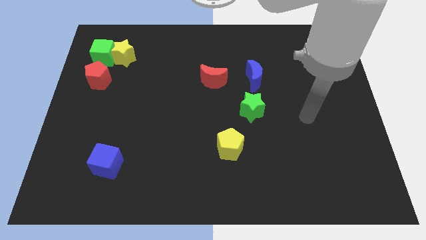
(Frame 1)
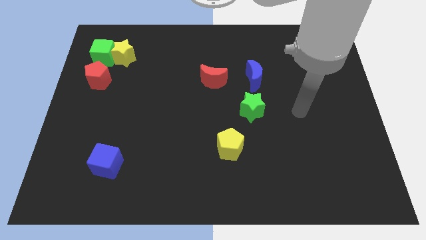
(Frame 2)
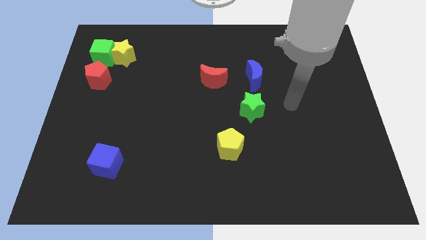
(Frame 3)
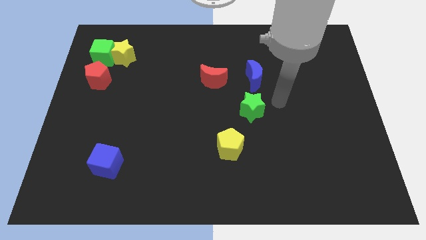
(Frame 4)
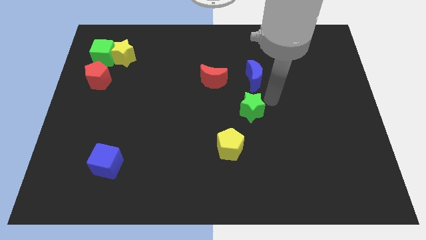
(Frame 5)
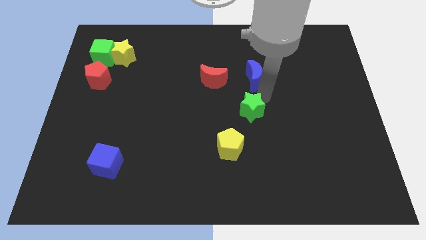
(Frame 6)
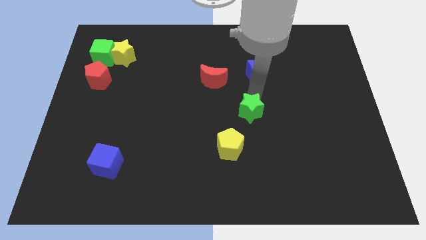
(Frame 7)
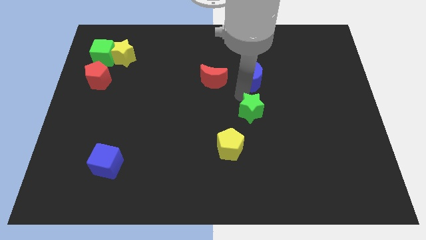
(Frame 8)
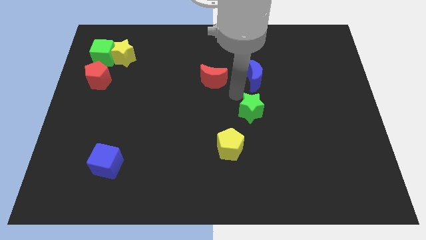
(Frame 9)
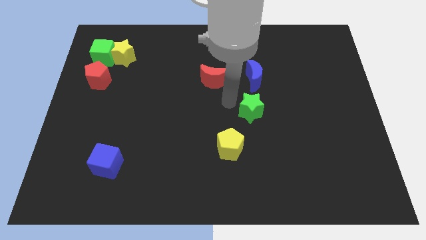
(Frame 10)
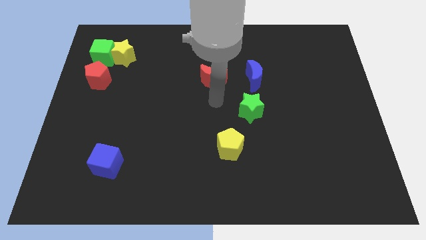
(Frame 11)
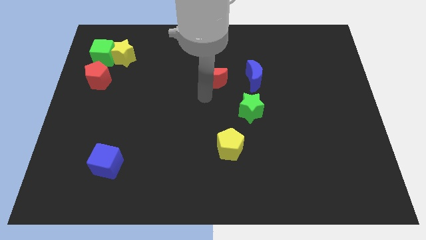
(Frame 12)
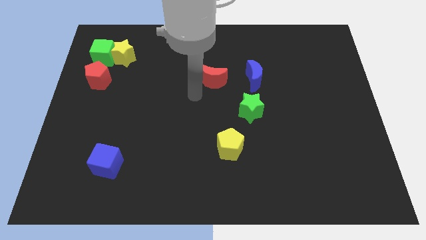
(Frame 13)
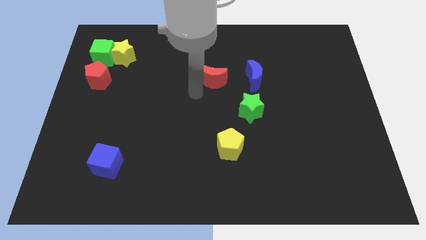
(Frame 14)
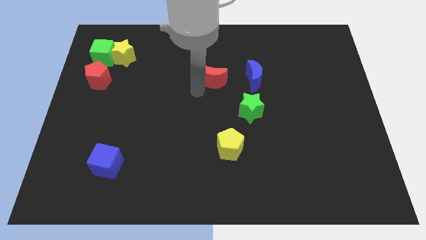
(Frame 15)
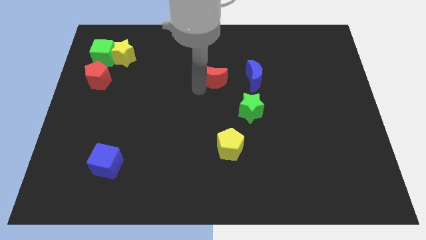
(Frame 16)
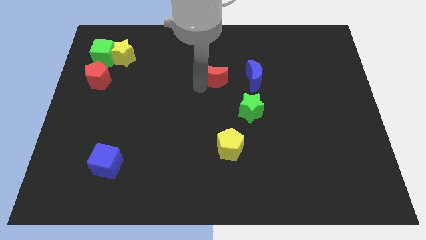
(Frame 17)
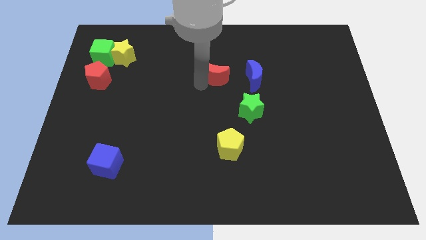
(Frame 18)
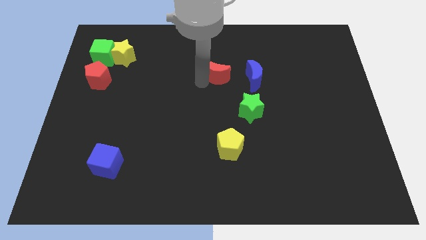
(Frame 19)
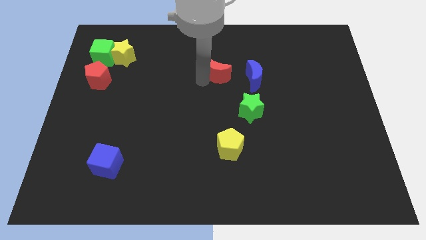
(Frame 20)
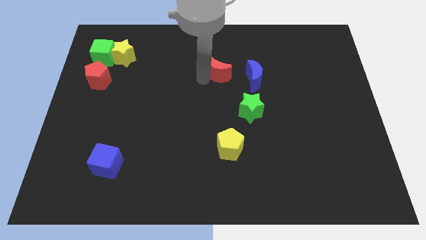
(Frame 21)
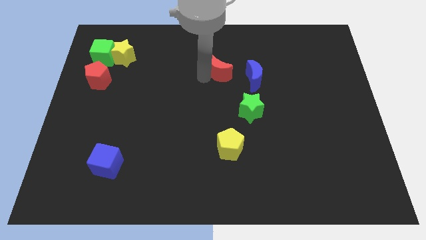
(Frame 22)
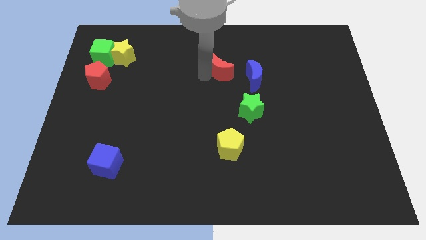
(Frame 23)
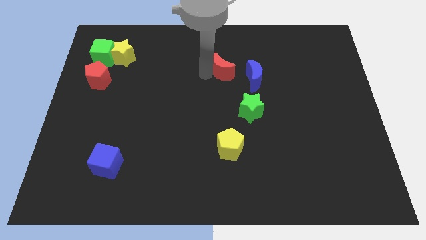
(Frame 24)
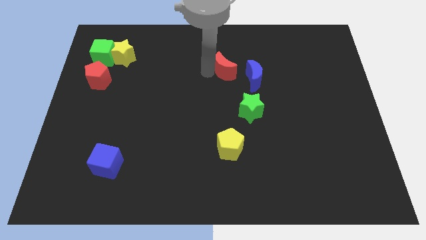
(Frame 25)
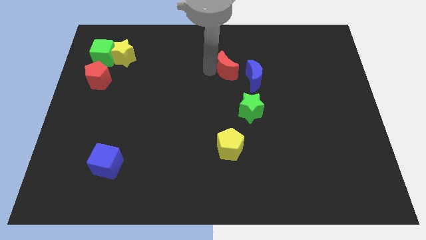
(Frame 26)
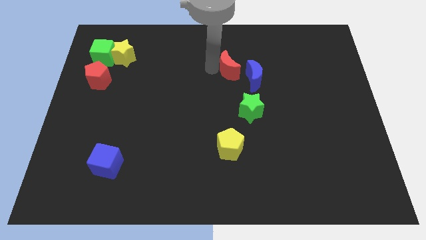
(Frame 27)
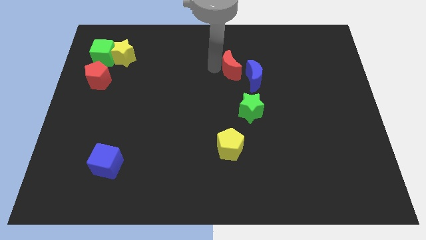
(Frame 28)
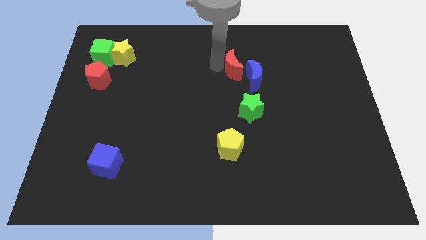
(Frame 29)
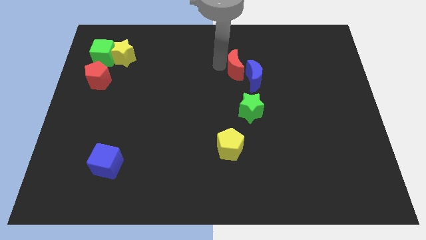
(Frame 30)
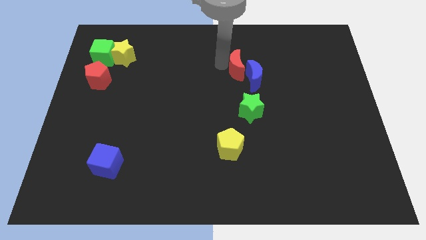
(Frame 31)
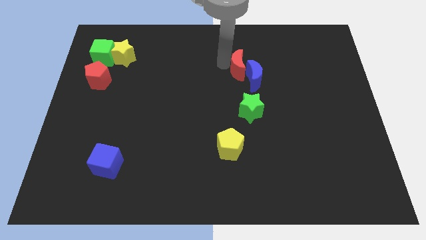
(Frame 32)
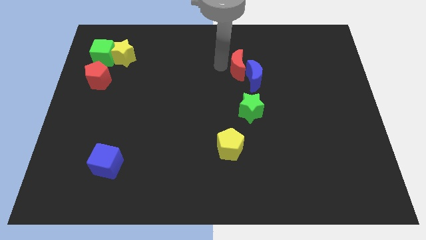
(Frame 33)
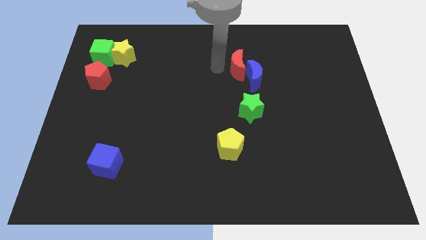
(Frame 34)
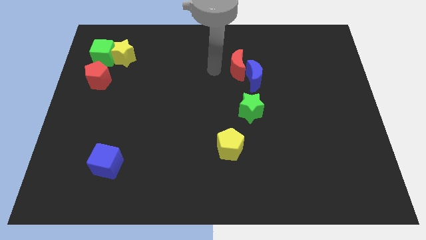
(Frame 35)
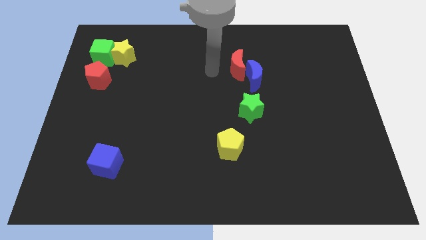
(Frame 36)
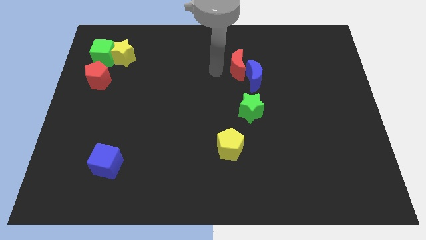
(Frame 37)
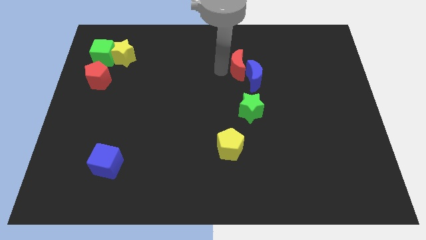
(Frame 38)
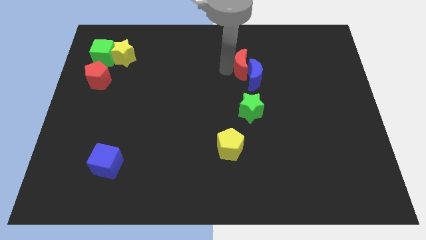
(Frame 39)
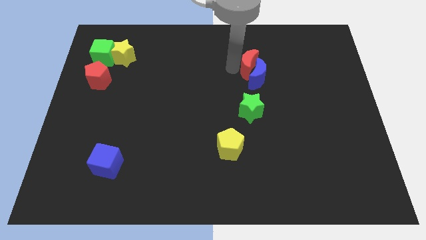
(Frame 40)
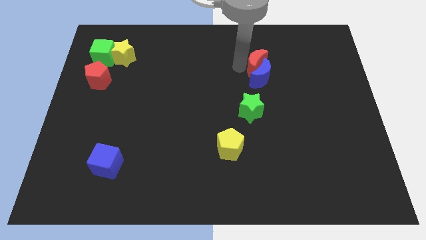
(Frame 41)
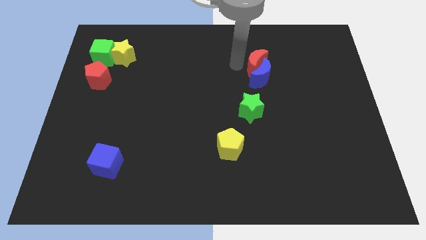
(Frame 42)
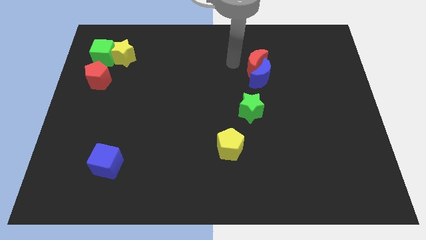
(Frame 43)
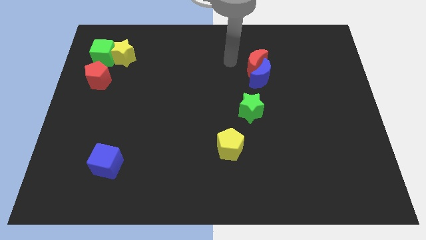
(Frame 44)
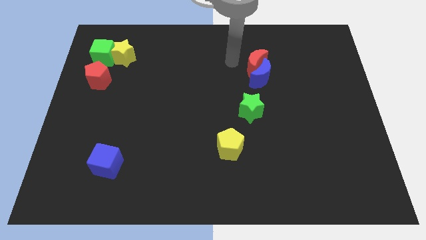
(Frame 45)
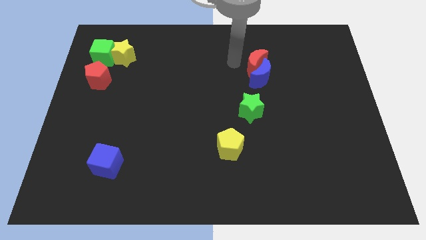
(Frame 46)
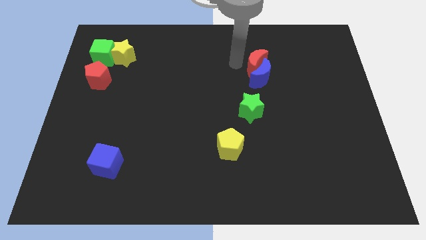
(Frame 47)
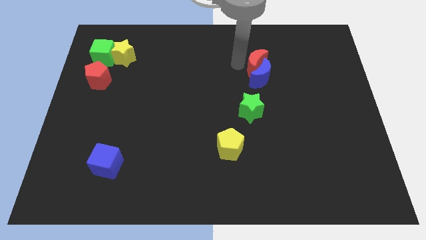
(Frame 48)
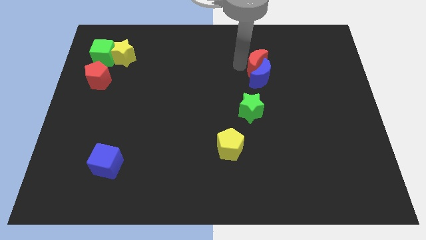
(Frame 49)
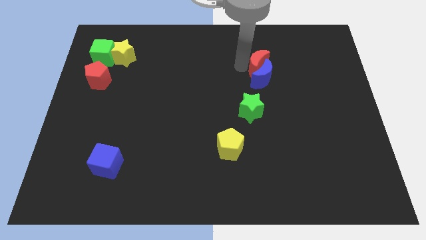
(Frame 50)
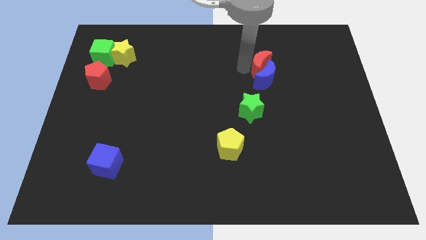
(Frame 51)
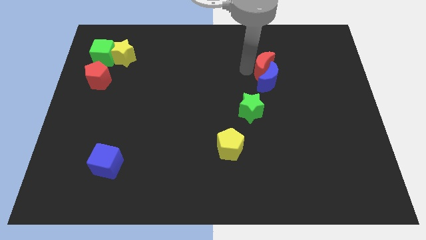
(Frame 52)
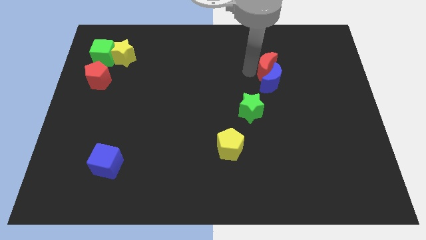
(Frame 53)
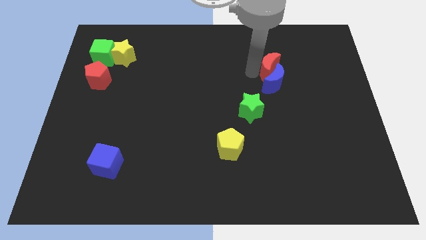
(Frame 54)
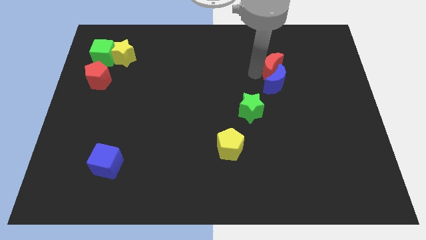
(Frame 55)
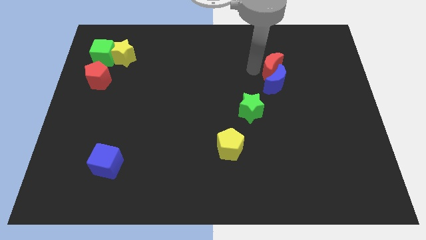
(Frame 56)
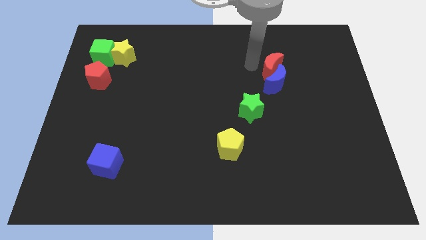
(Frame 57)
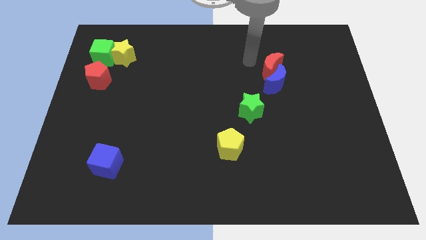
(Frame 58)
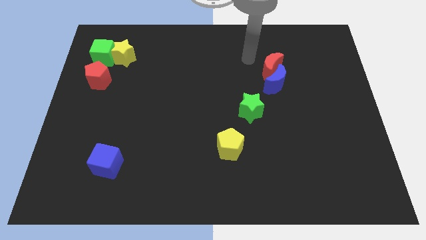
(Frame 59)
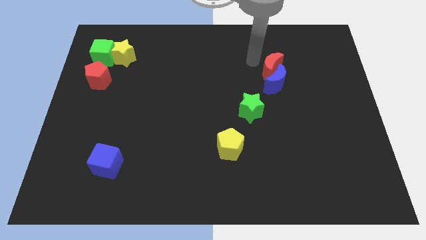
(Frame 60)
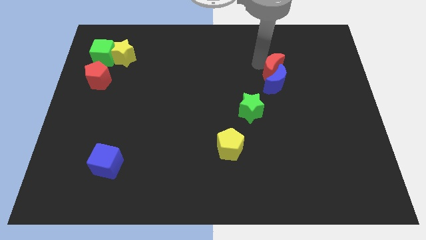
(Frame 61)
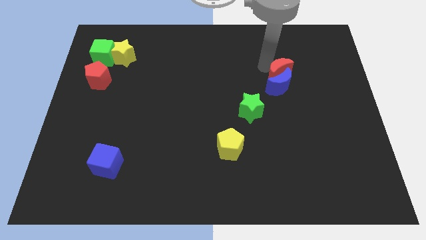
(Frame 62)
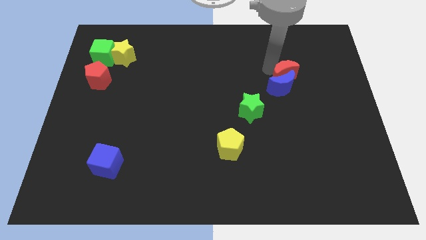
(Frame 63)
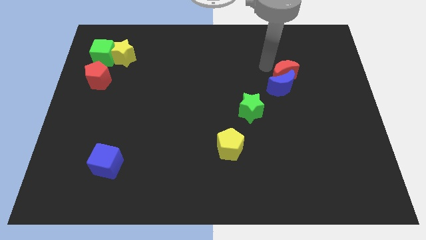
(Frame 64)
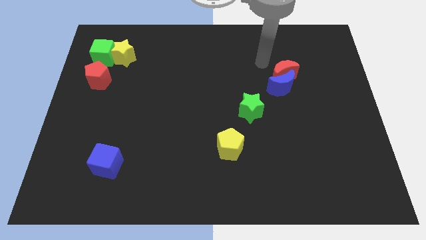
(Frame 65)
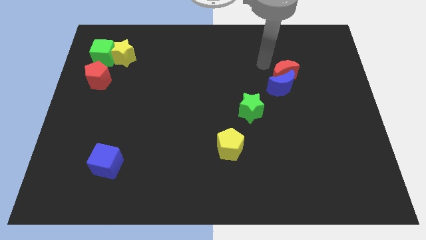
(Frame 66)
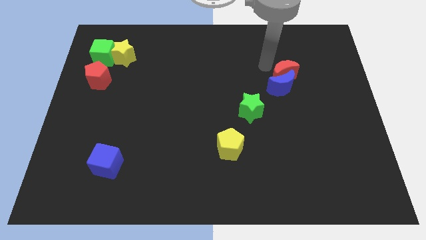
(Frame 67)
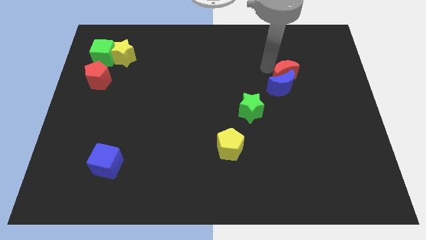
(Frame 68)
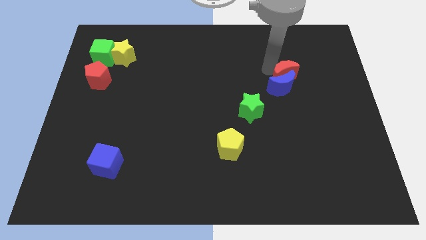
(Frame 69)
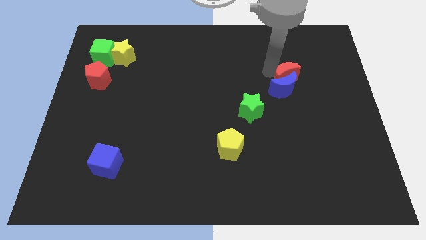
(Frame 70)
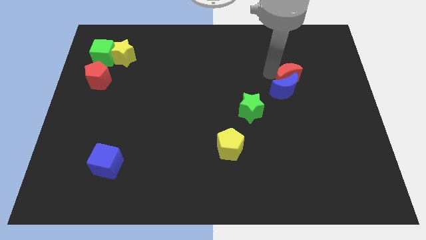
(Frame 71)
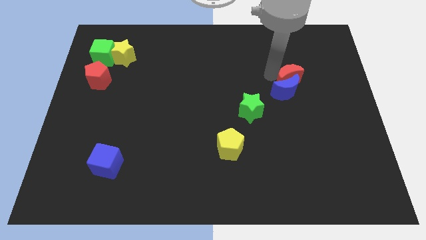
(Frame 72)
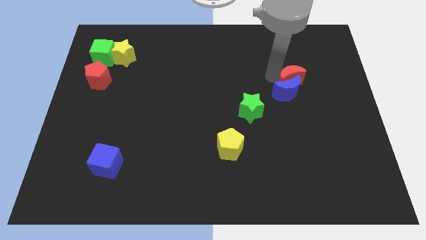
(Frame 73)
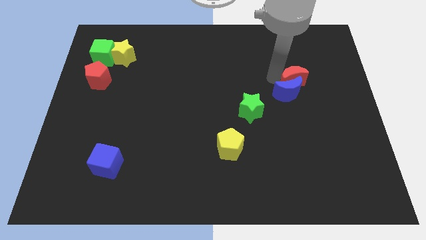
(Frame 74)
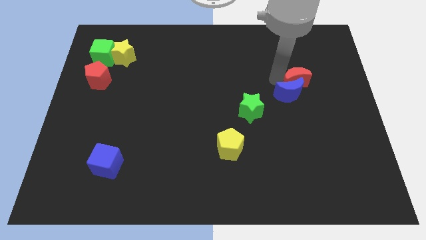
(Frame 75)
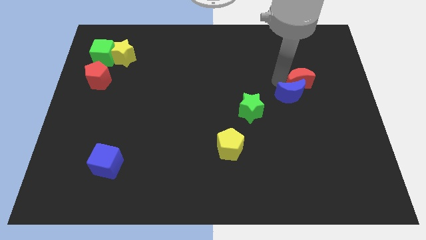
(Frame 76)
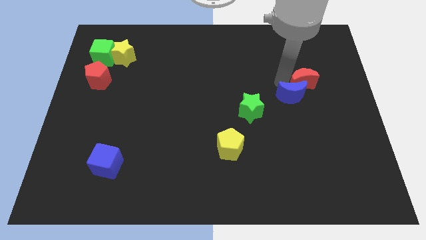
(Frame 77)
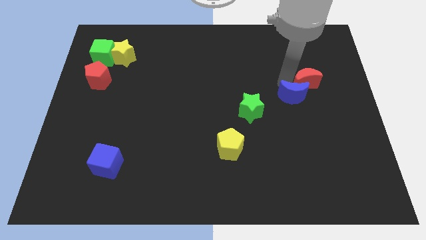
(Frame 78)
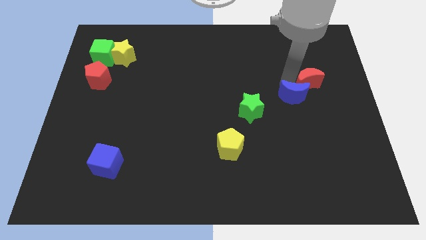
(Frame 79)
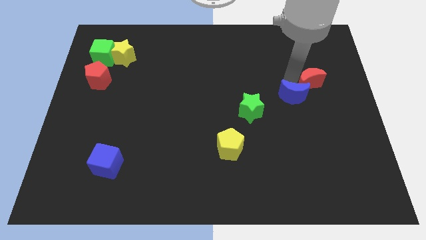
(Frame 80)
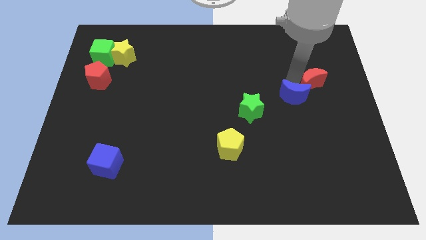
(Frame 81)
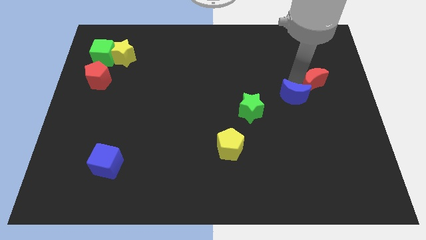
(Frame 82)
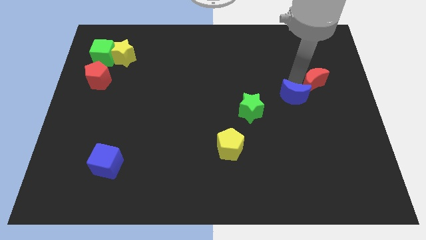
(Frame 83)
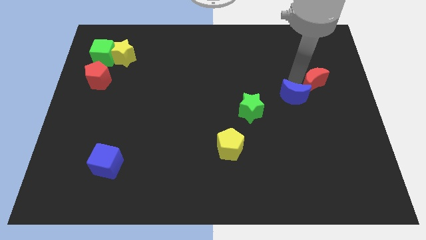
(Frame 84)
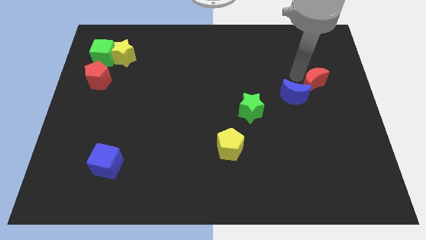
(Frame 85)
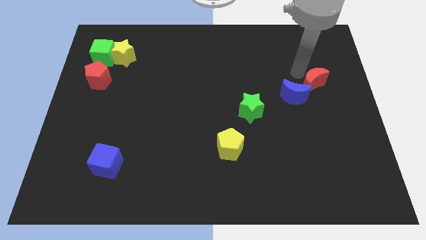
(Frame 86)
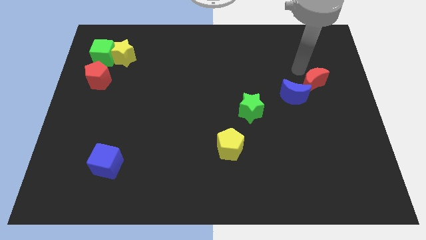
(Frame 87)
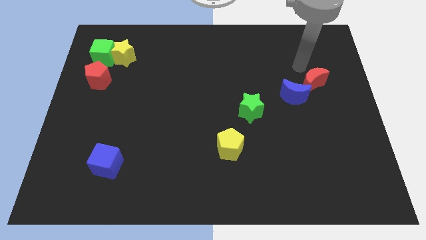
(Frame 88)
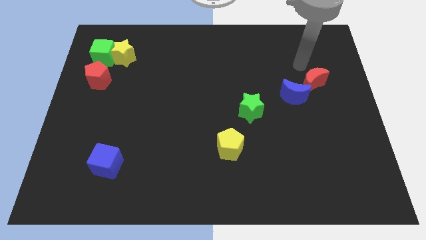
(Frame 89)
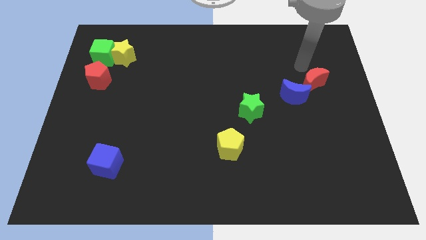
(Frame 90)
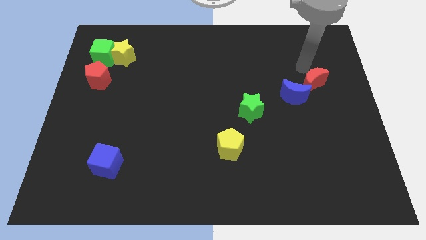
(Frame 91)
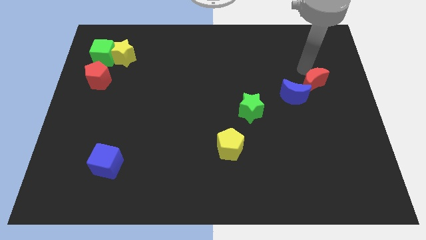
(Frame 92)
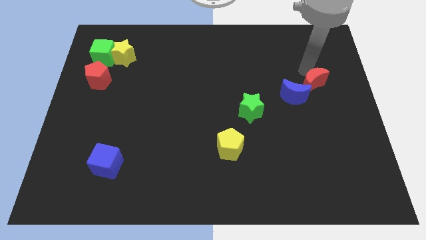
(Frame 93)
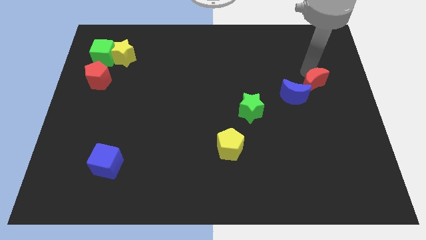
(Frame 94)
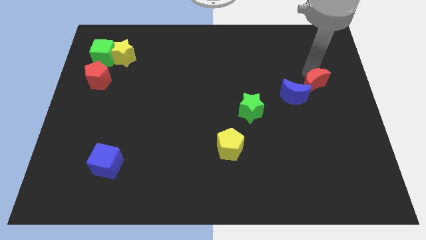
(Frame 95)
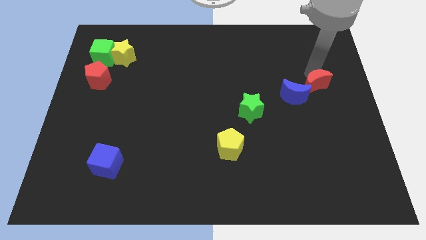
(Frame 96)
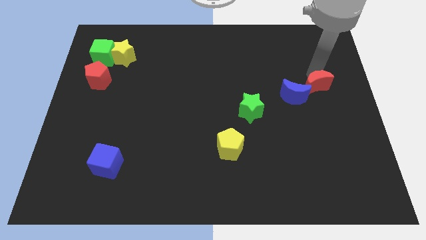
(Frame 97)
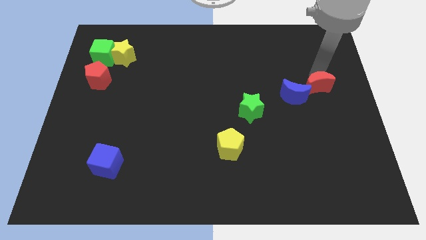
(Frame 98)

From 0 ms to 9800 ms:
put the red moon to the center right
